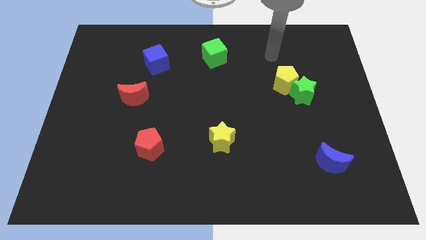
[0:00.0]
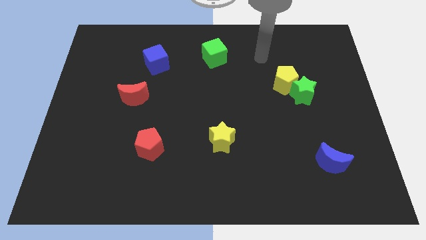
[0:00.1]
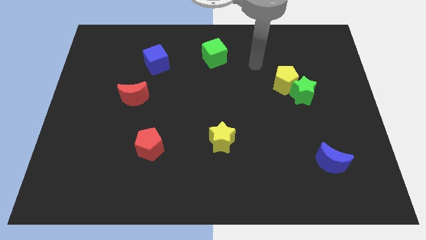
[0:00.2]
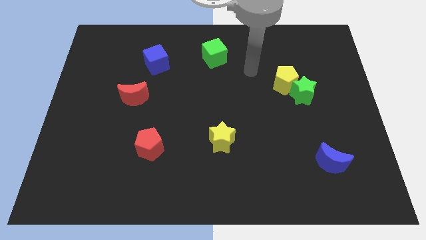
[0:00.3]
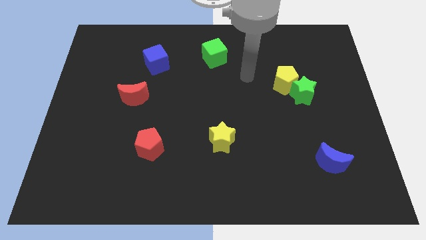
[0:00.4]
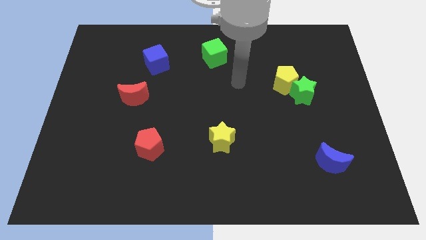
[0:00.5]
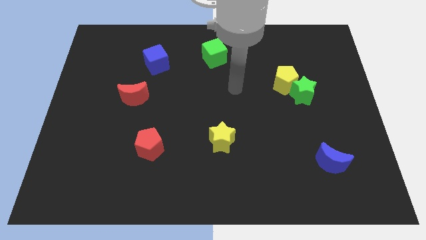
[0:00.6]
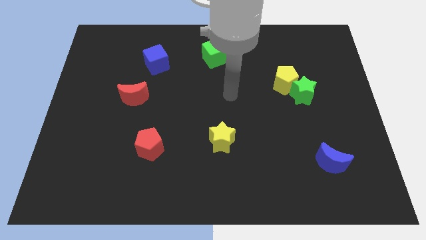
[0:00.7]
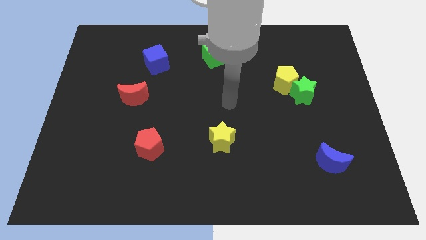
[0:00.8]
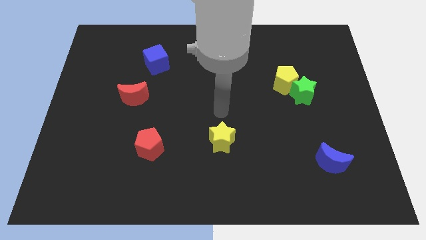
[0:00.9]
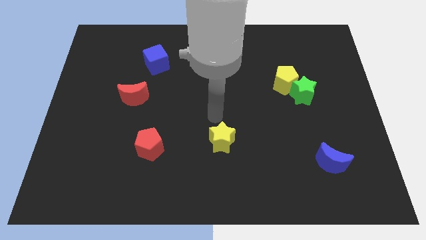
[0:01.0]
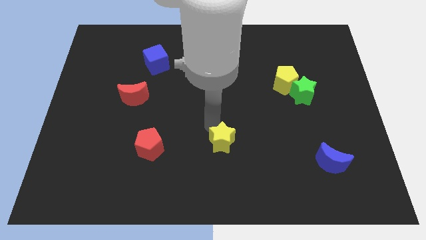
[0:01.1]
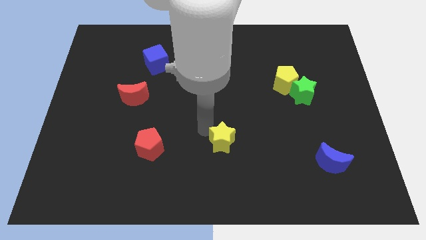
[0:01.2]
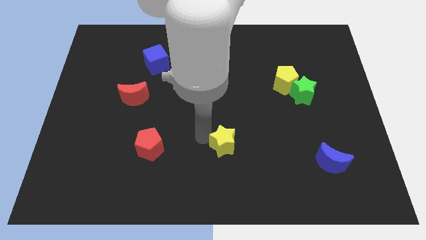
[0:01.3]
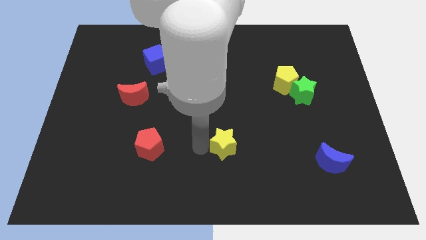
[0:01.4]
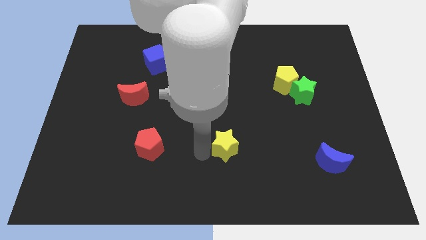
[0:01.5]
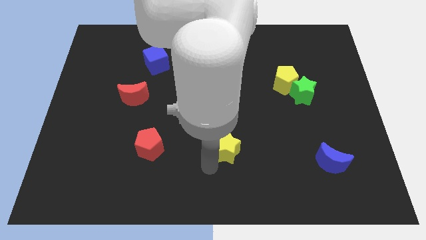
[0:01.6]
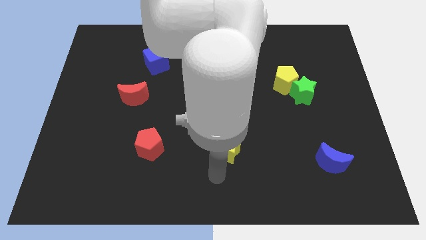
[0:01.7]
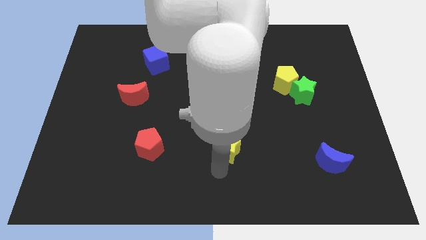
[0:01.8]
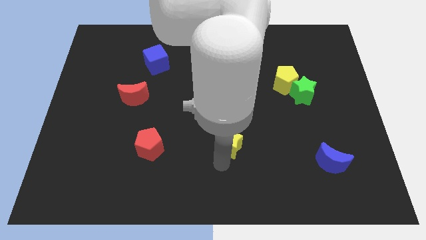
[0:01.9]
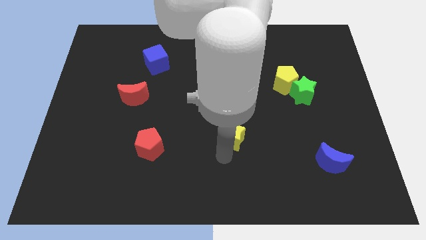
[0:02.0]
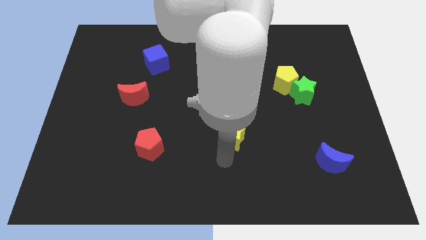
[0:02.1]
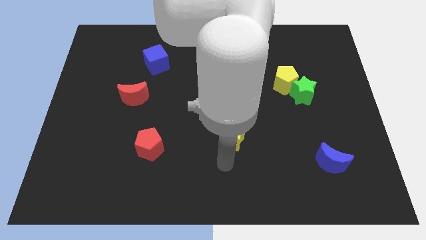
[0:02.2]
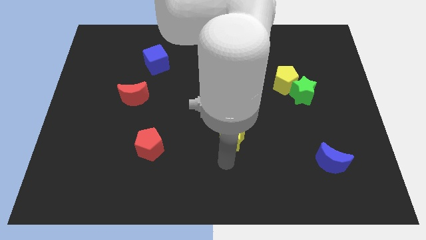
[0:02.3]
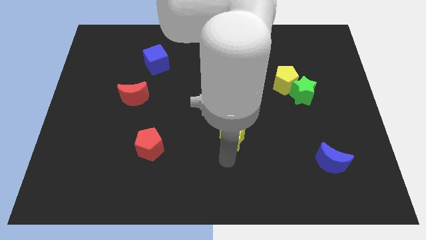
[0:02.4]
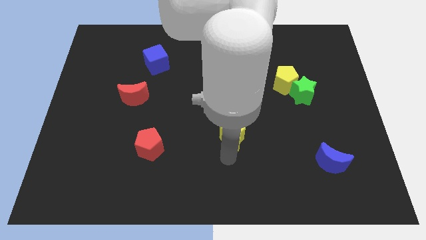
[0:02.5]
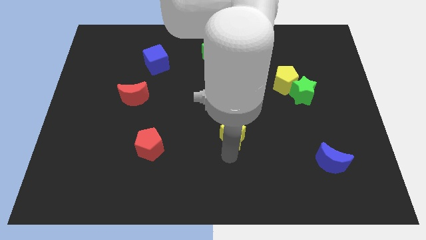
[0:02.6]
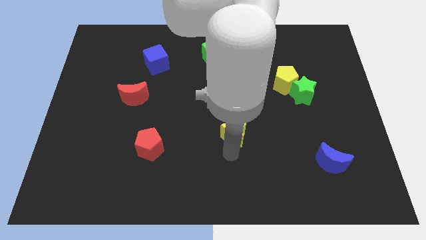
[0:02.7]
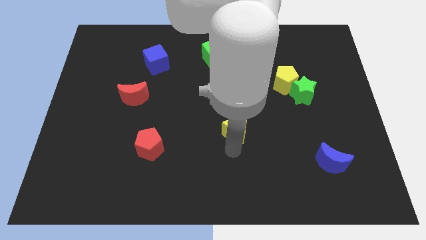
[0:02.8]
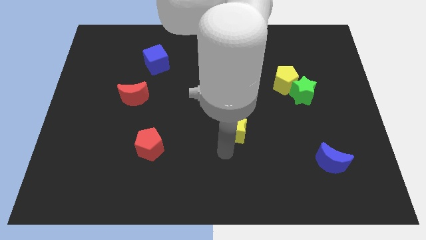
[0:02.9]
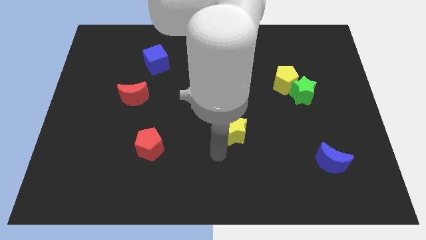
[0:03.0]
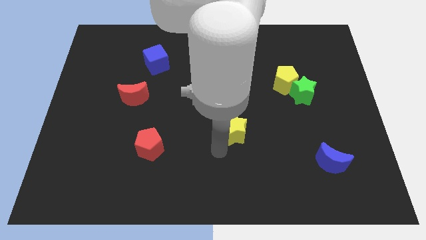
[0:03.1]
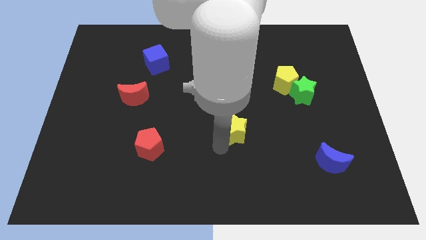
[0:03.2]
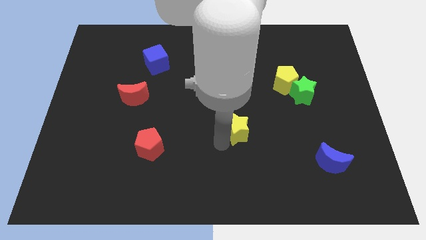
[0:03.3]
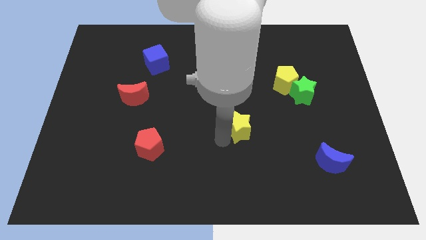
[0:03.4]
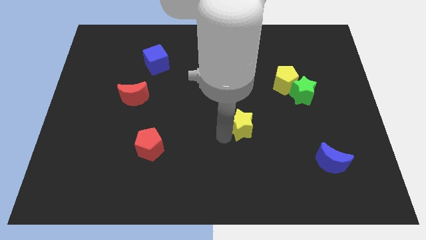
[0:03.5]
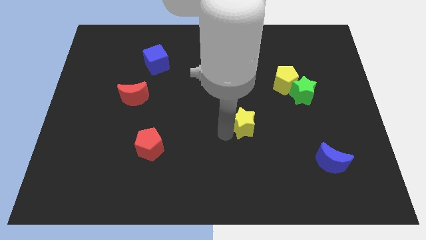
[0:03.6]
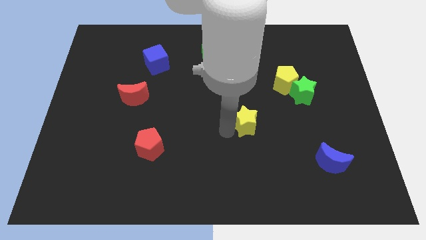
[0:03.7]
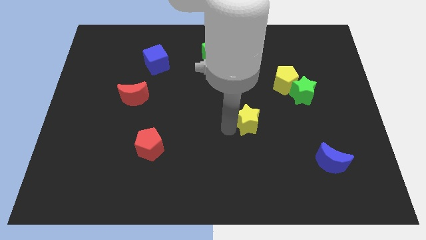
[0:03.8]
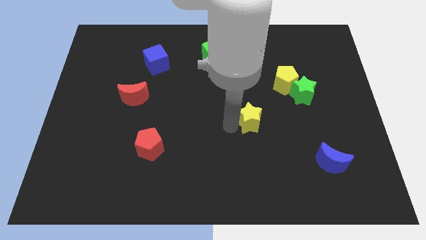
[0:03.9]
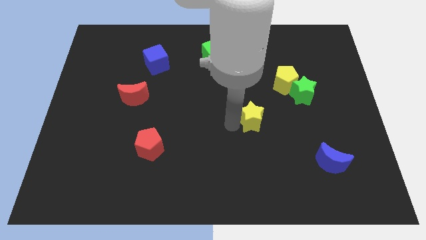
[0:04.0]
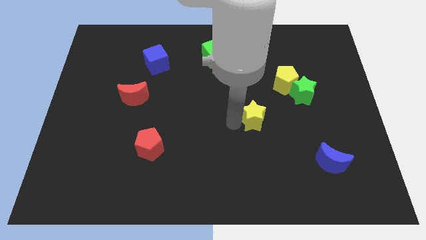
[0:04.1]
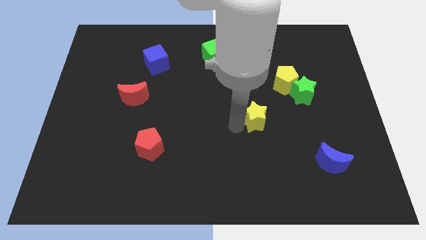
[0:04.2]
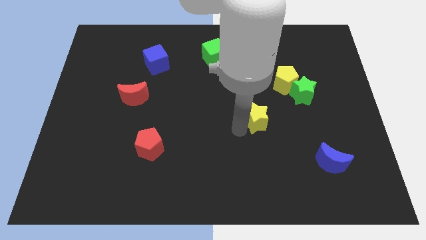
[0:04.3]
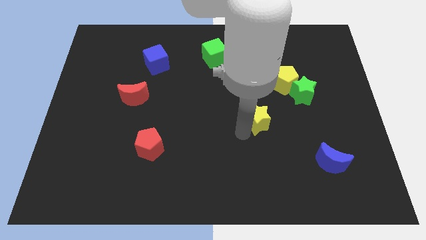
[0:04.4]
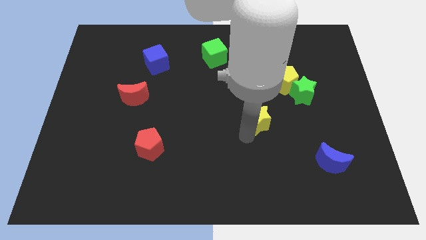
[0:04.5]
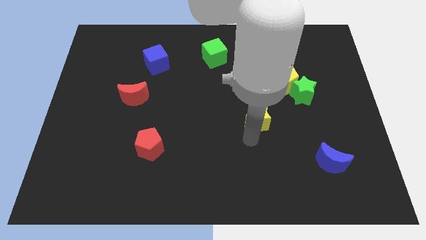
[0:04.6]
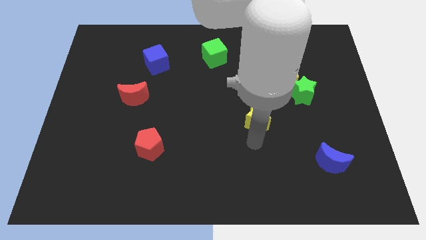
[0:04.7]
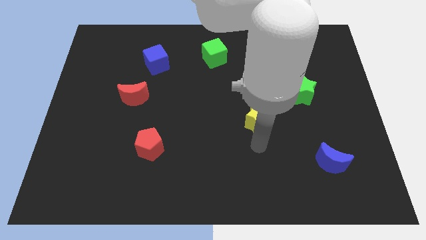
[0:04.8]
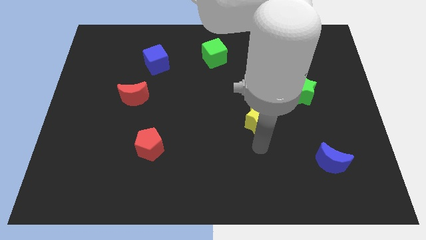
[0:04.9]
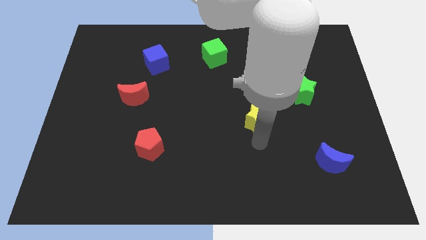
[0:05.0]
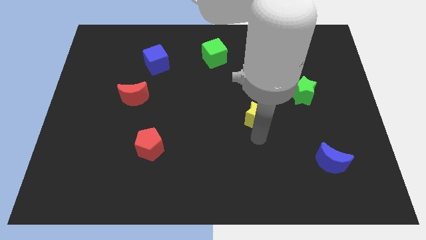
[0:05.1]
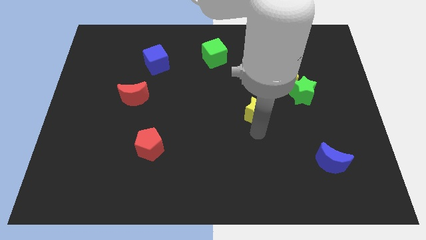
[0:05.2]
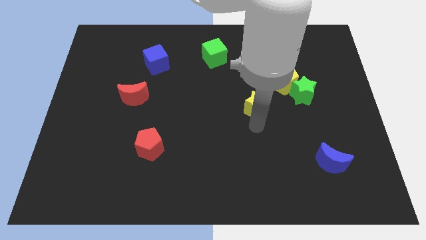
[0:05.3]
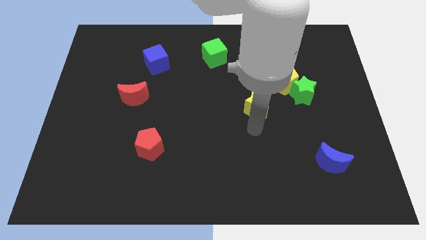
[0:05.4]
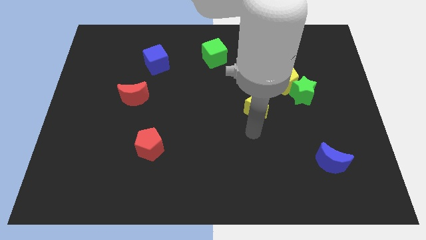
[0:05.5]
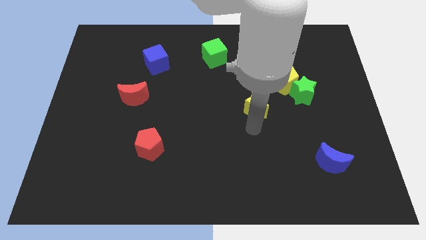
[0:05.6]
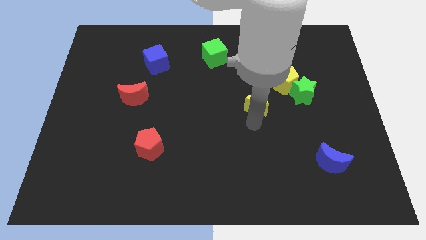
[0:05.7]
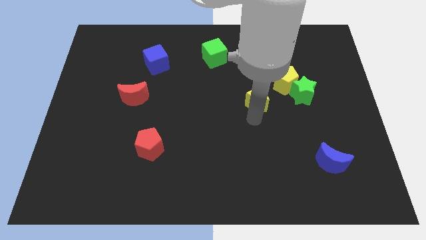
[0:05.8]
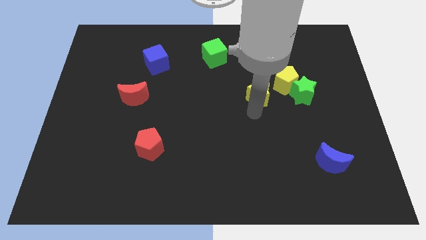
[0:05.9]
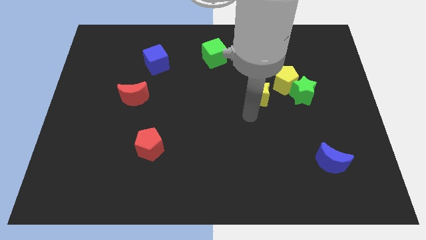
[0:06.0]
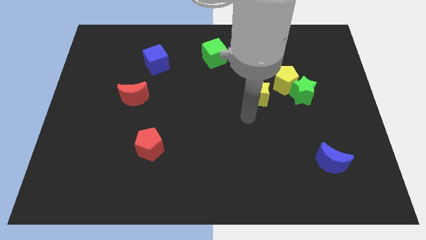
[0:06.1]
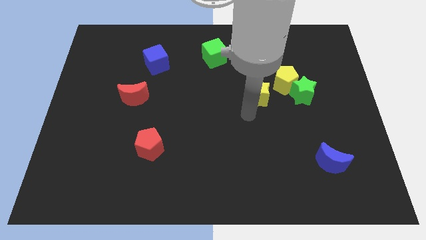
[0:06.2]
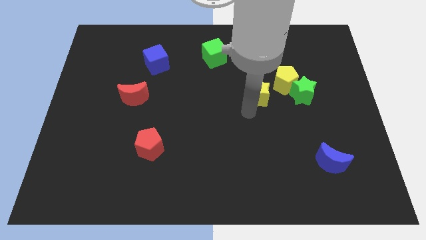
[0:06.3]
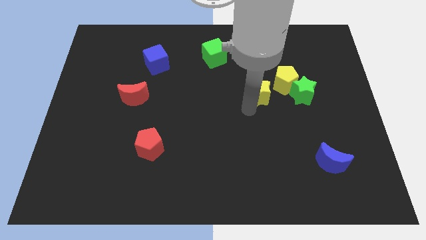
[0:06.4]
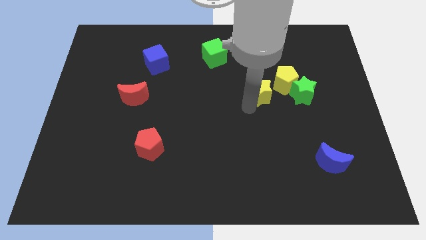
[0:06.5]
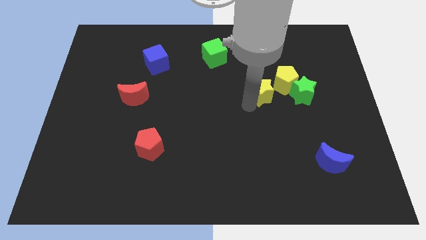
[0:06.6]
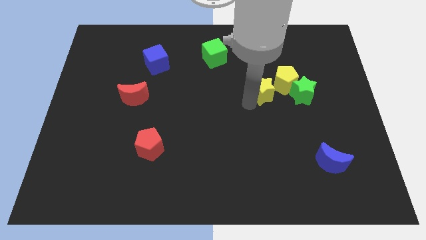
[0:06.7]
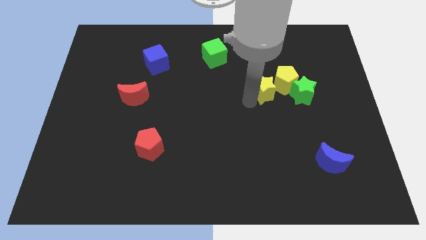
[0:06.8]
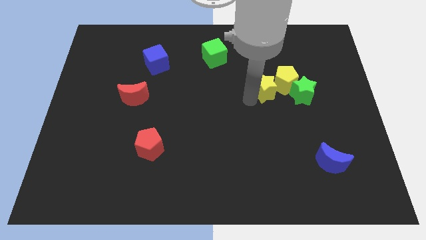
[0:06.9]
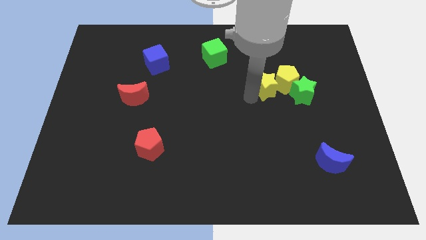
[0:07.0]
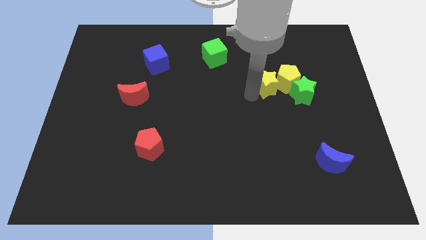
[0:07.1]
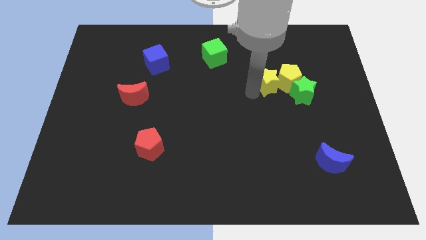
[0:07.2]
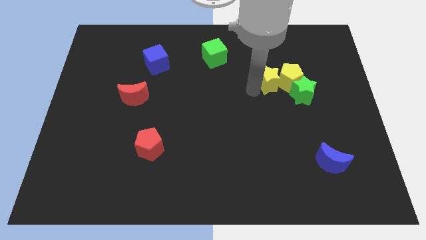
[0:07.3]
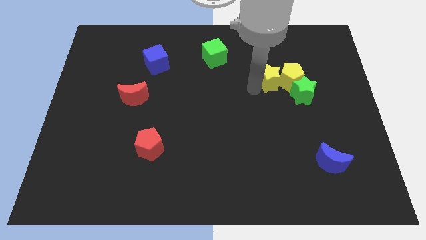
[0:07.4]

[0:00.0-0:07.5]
slide the yellow star upwards and right diagonally

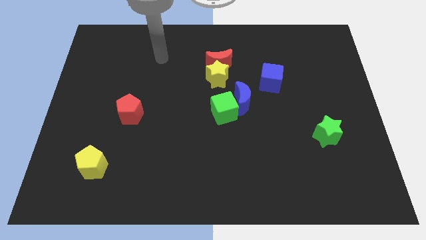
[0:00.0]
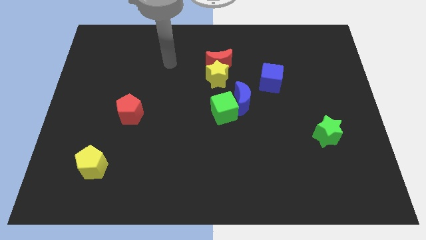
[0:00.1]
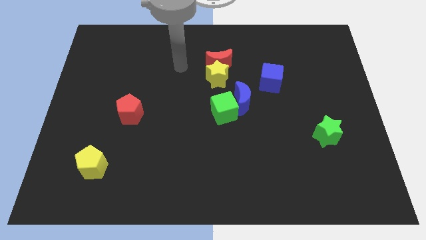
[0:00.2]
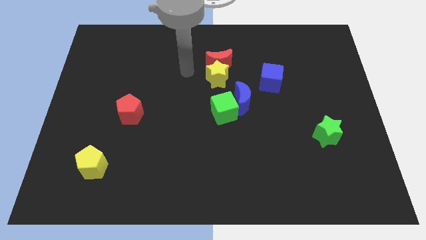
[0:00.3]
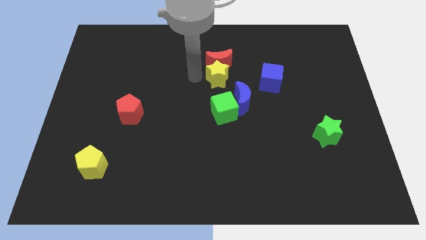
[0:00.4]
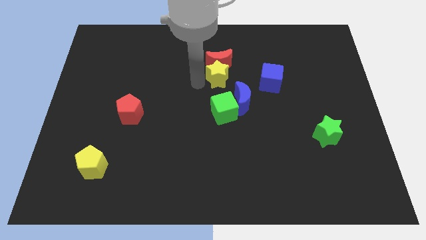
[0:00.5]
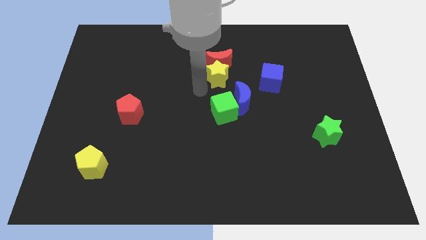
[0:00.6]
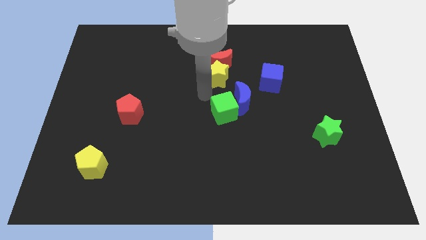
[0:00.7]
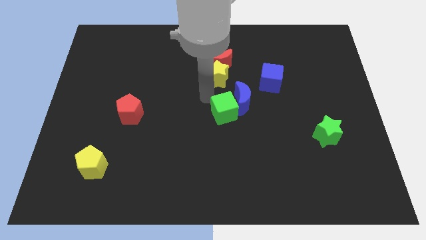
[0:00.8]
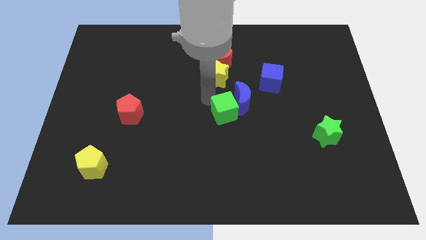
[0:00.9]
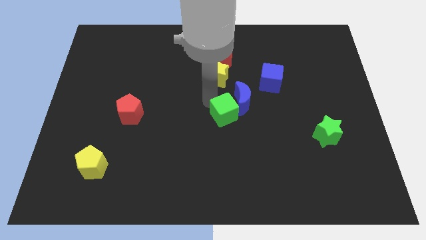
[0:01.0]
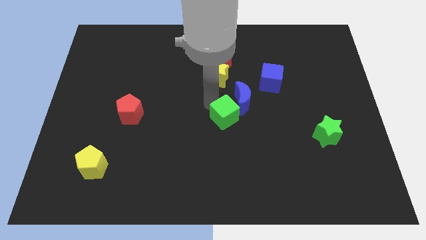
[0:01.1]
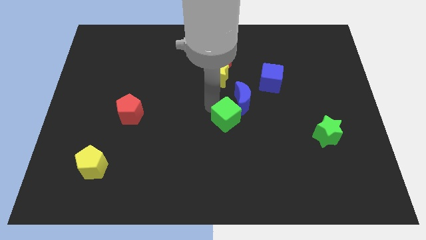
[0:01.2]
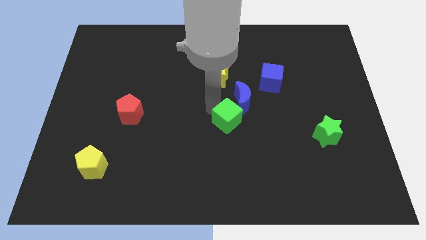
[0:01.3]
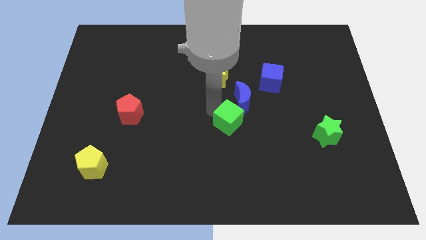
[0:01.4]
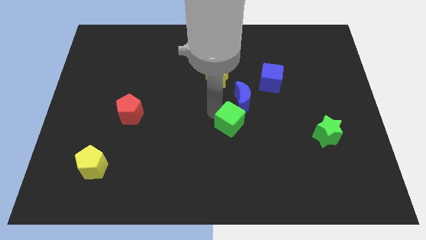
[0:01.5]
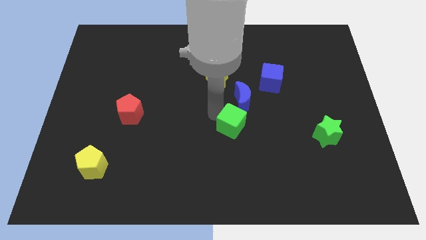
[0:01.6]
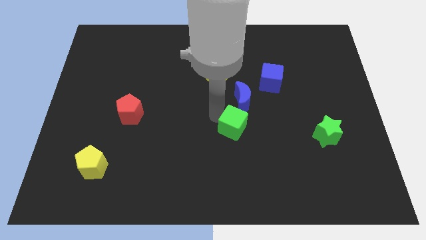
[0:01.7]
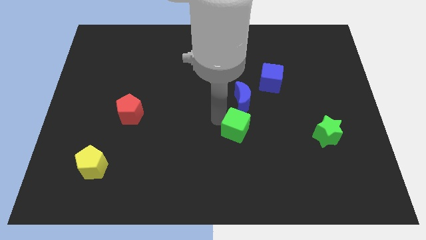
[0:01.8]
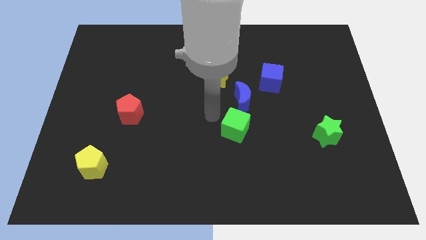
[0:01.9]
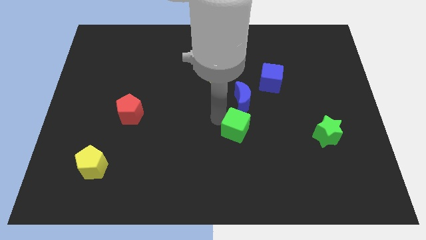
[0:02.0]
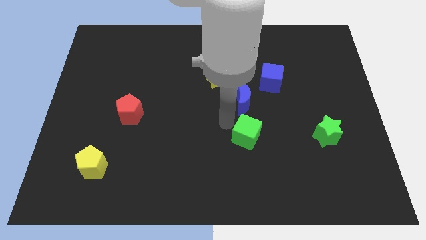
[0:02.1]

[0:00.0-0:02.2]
slightly move the green cube downwards and right
